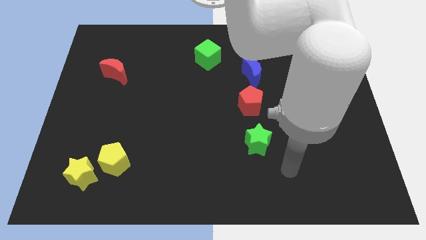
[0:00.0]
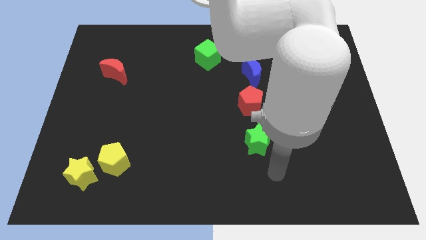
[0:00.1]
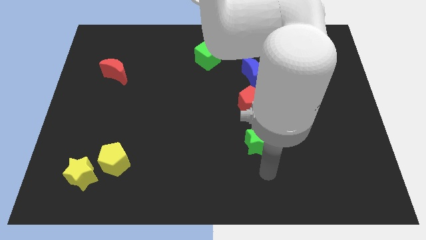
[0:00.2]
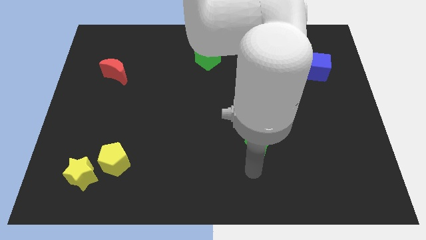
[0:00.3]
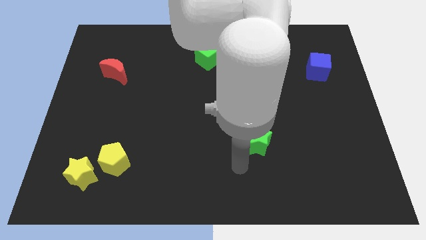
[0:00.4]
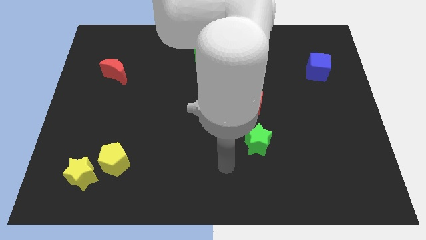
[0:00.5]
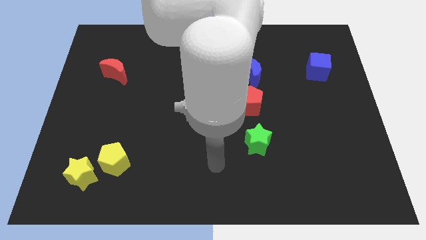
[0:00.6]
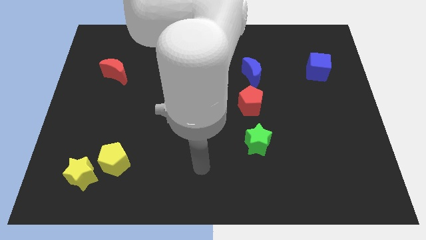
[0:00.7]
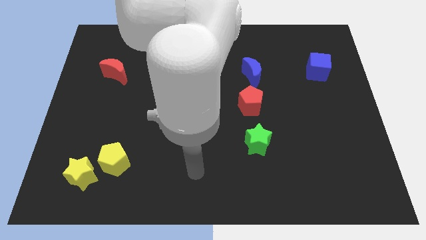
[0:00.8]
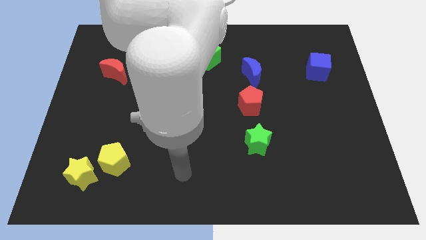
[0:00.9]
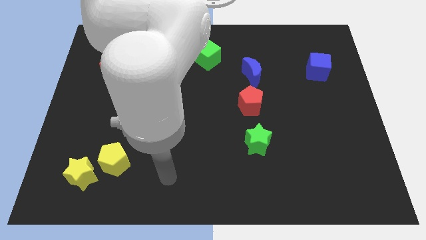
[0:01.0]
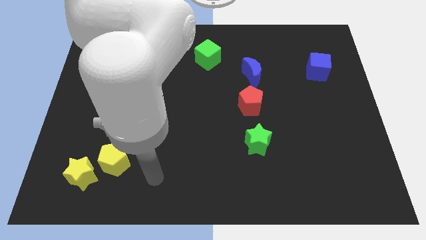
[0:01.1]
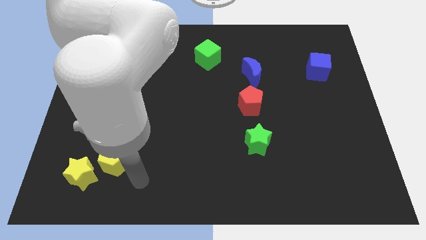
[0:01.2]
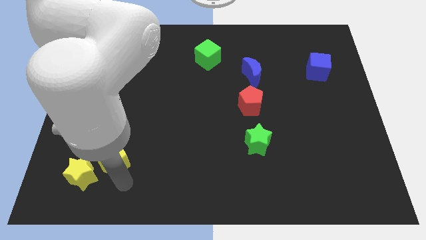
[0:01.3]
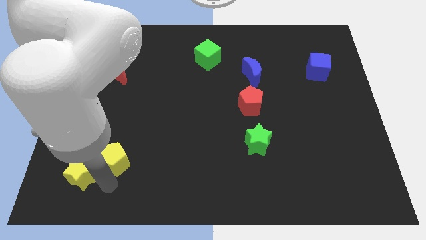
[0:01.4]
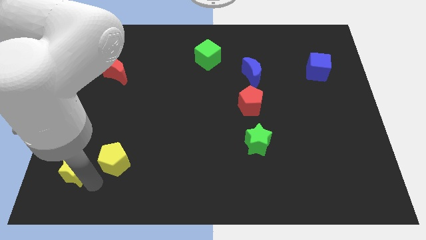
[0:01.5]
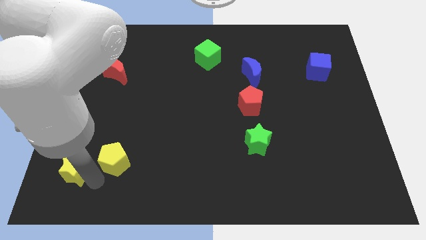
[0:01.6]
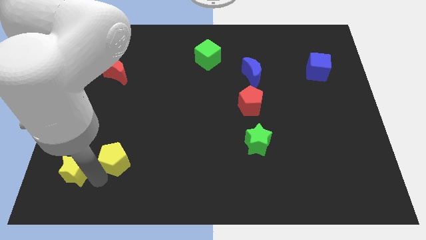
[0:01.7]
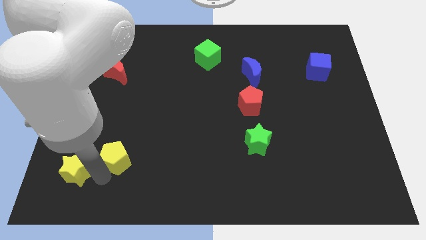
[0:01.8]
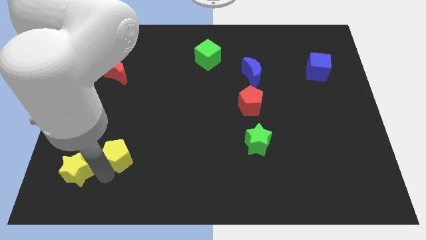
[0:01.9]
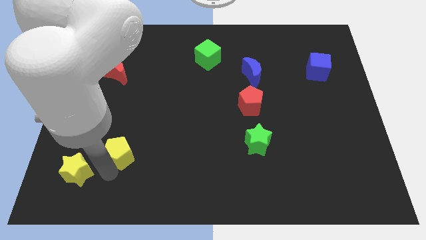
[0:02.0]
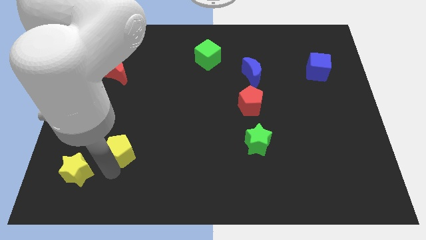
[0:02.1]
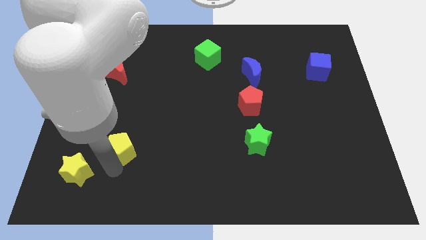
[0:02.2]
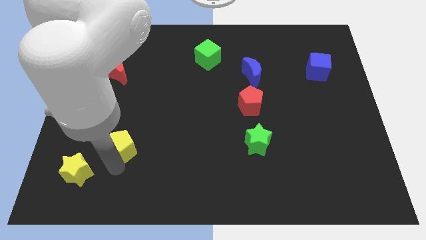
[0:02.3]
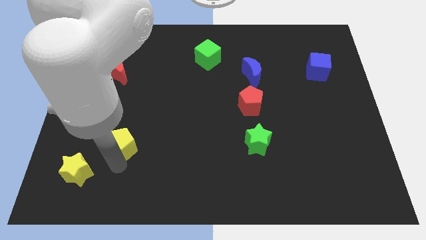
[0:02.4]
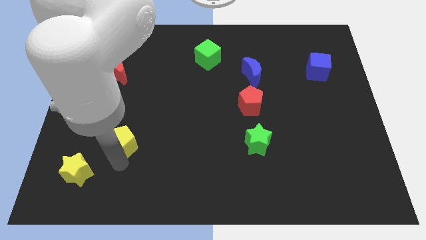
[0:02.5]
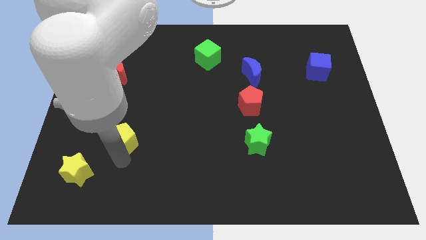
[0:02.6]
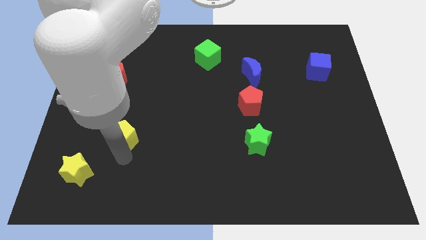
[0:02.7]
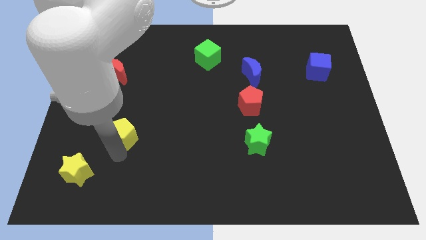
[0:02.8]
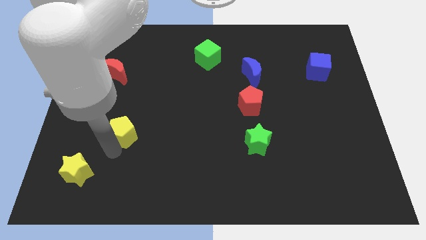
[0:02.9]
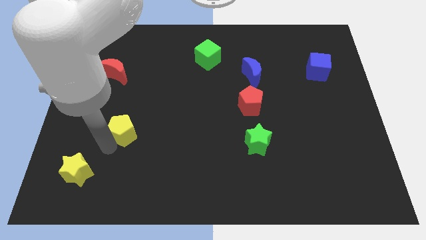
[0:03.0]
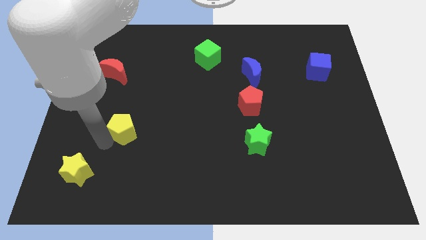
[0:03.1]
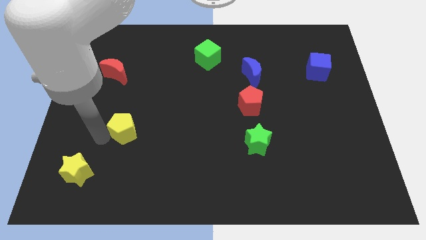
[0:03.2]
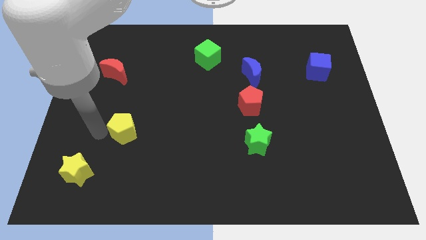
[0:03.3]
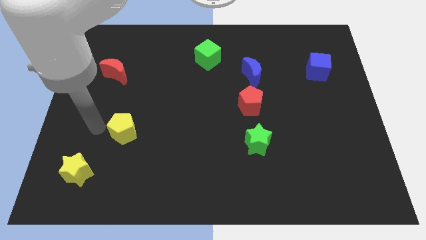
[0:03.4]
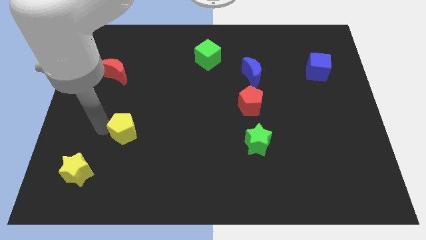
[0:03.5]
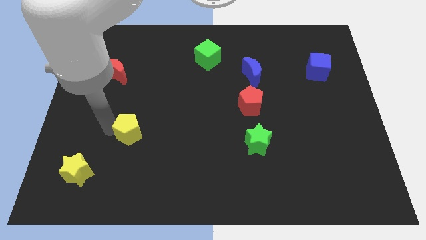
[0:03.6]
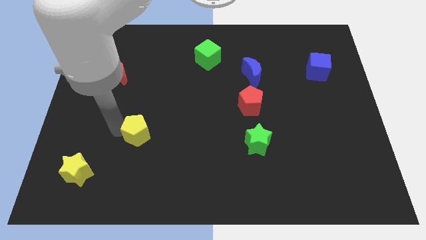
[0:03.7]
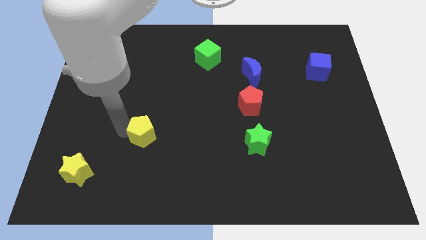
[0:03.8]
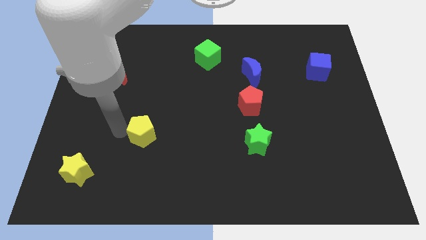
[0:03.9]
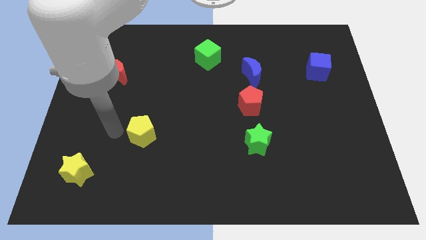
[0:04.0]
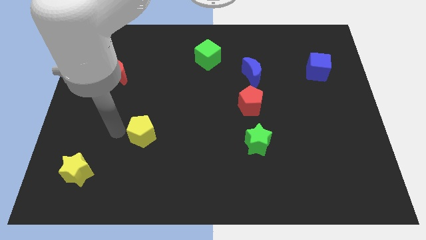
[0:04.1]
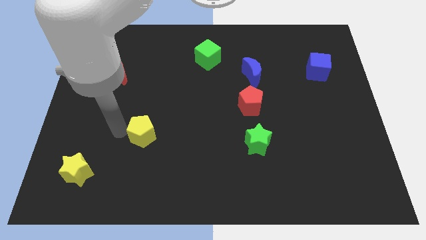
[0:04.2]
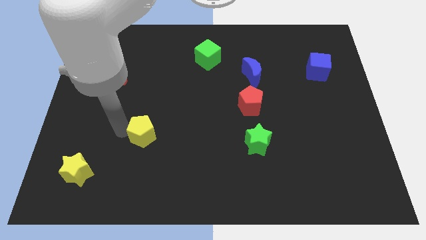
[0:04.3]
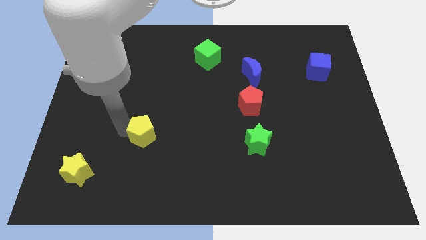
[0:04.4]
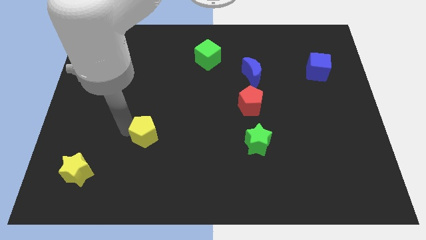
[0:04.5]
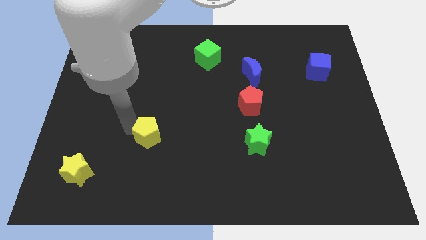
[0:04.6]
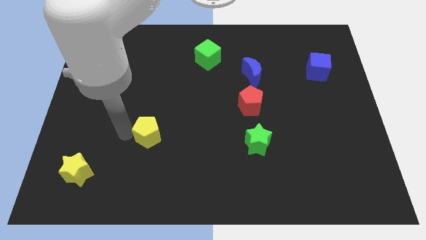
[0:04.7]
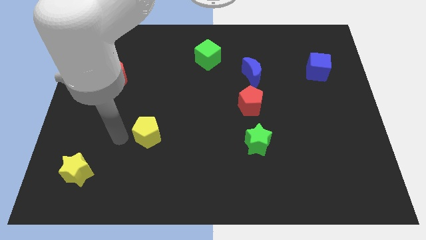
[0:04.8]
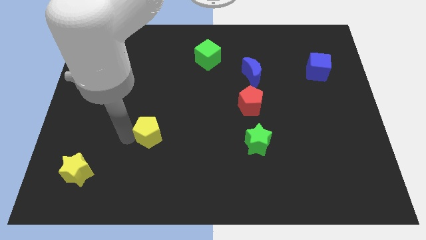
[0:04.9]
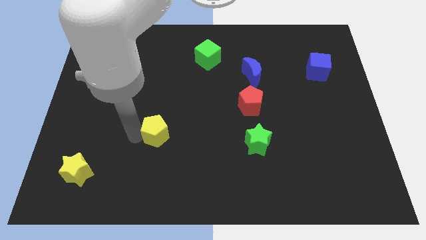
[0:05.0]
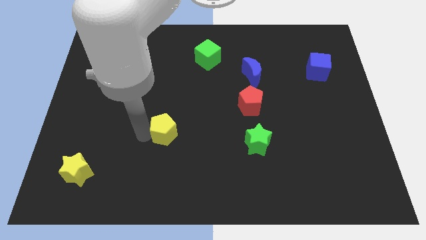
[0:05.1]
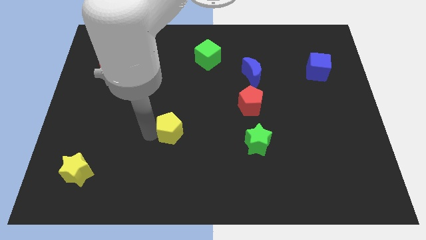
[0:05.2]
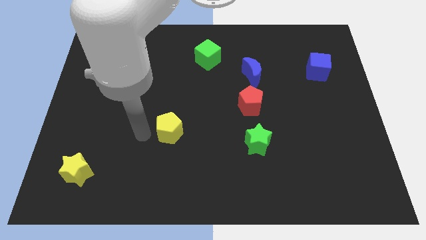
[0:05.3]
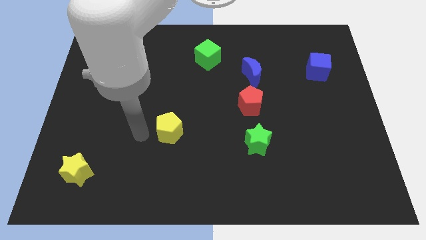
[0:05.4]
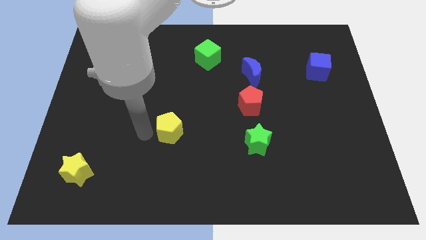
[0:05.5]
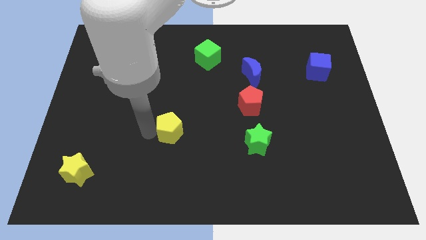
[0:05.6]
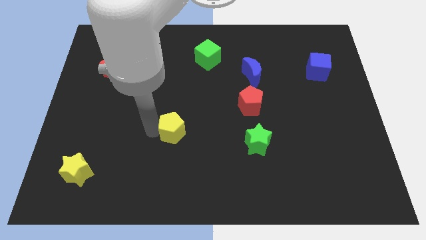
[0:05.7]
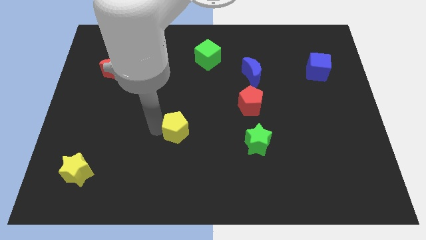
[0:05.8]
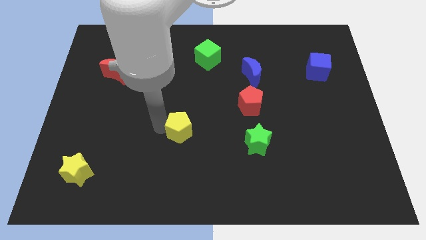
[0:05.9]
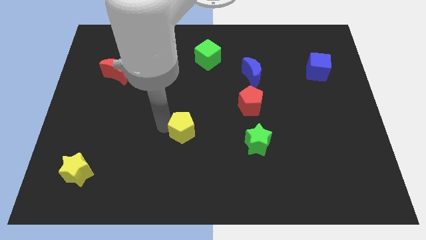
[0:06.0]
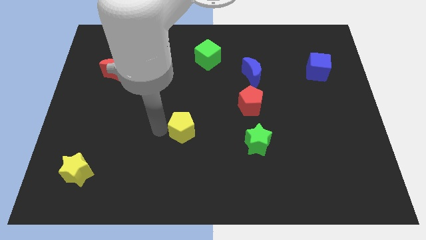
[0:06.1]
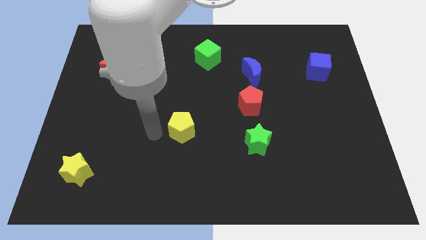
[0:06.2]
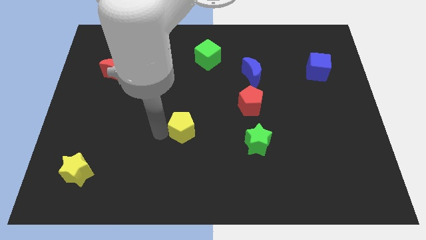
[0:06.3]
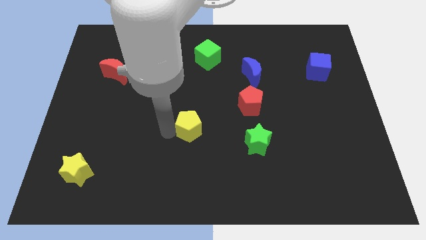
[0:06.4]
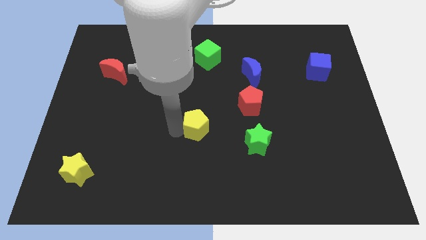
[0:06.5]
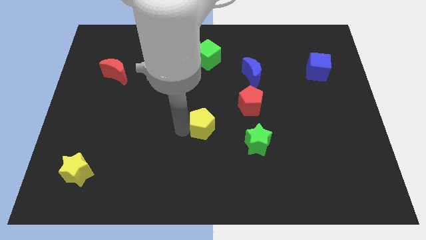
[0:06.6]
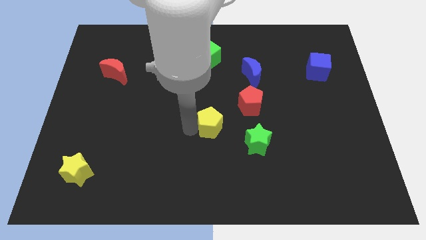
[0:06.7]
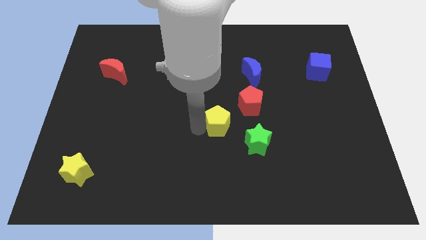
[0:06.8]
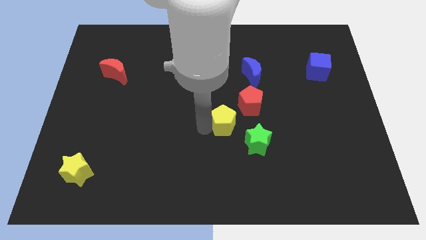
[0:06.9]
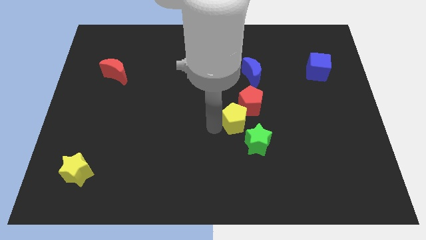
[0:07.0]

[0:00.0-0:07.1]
push the yellow pentagon to the red pentagon
